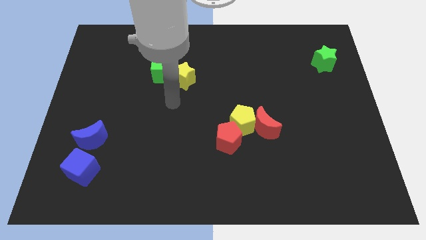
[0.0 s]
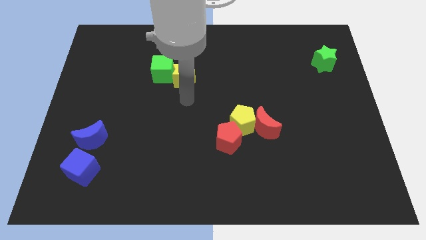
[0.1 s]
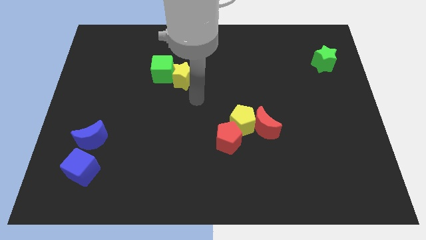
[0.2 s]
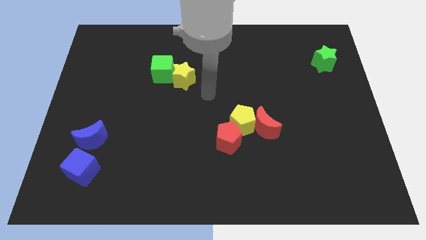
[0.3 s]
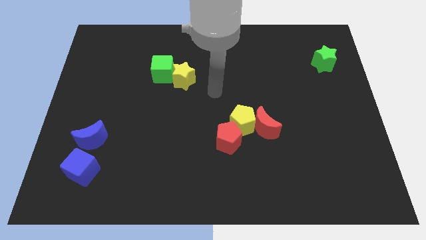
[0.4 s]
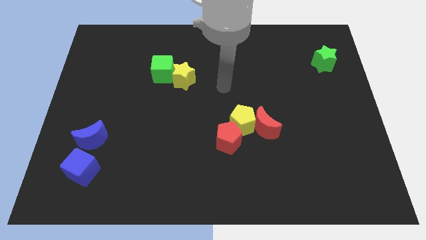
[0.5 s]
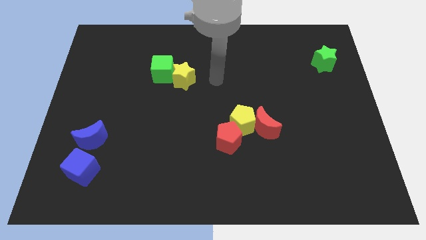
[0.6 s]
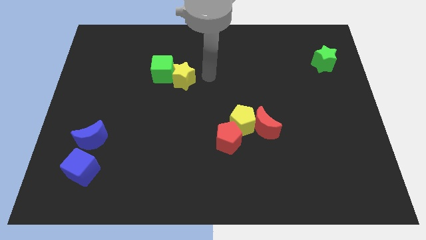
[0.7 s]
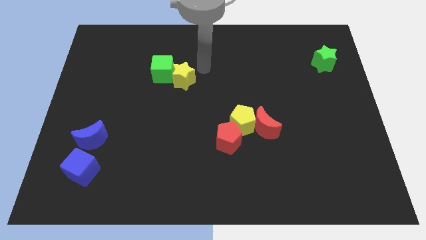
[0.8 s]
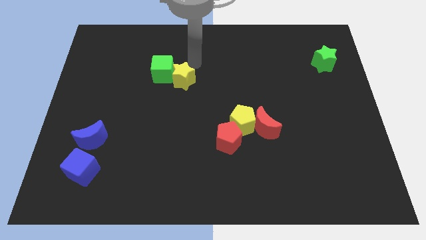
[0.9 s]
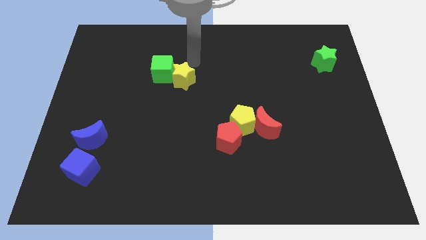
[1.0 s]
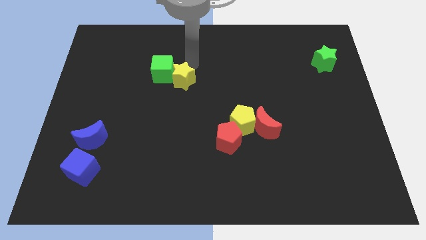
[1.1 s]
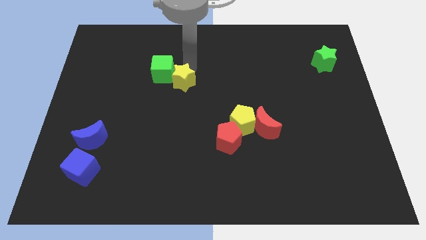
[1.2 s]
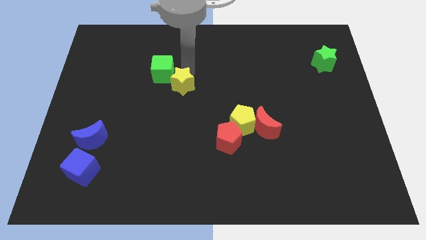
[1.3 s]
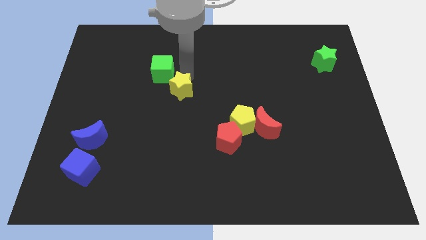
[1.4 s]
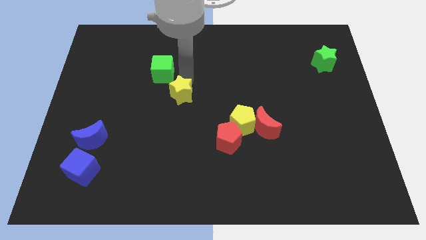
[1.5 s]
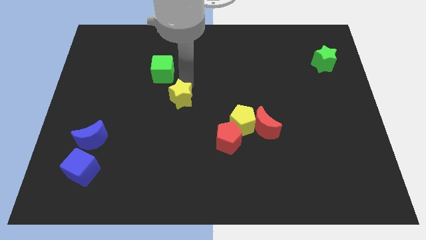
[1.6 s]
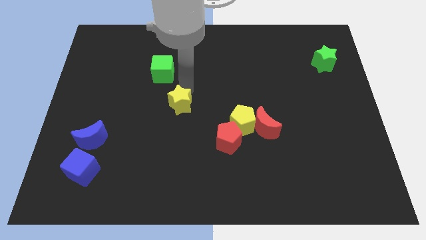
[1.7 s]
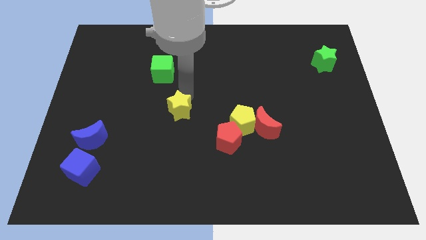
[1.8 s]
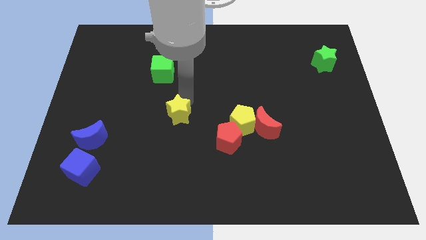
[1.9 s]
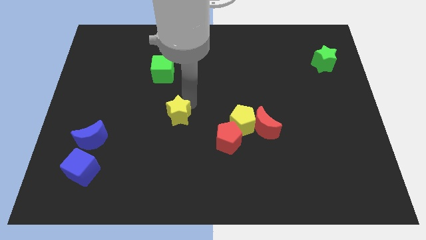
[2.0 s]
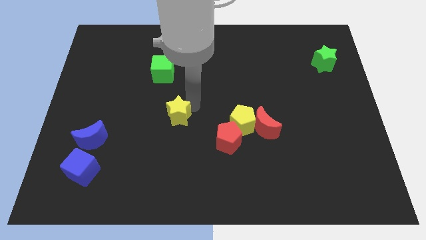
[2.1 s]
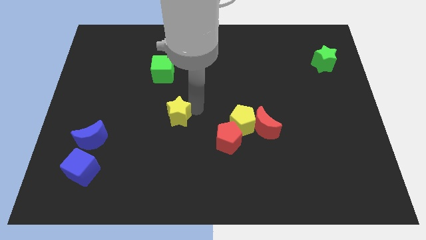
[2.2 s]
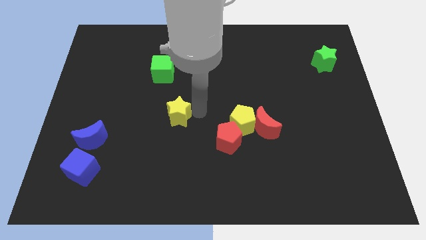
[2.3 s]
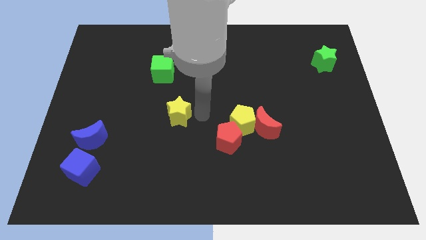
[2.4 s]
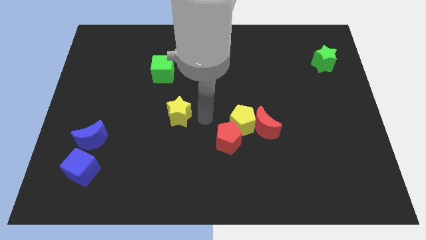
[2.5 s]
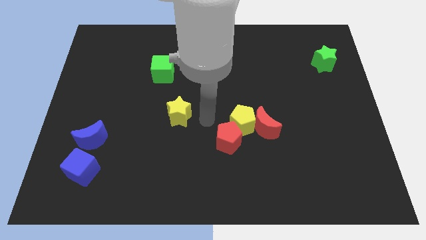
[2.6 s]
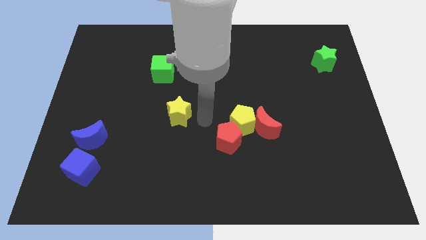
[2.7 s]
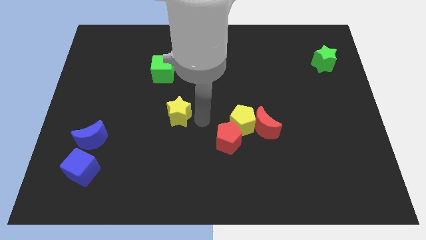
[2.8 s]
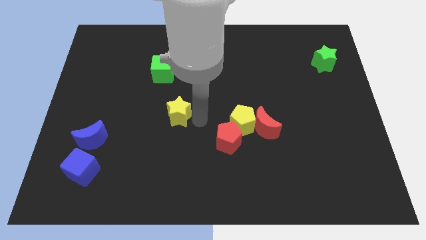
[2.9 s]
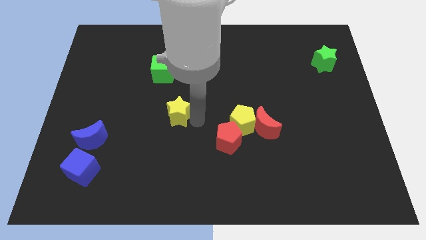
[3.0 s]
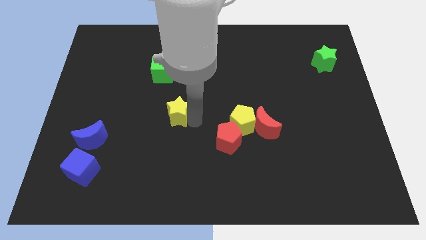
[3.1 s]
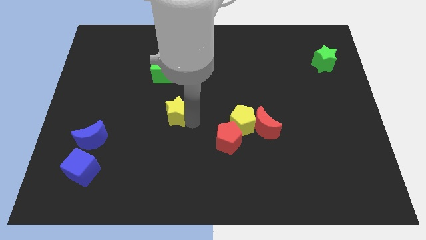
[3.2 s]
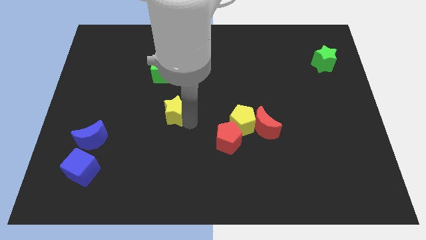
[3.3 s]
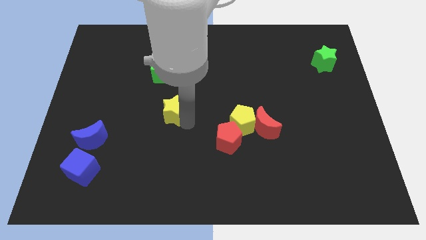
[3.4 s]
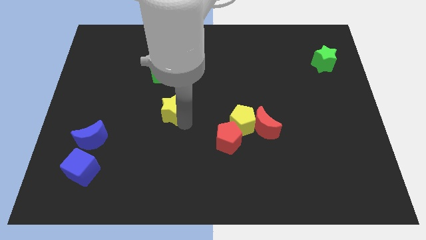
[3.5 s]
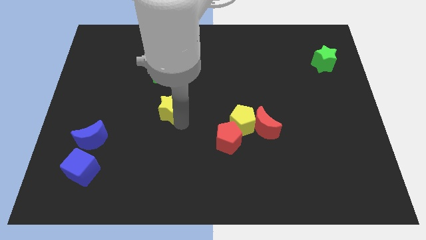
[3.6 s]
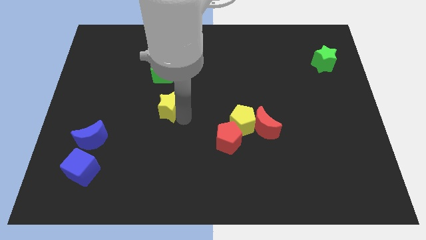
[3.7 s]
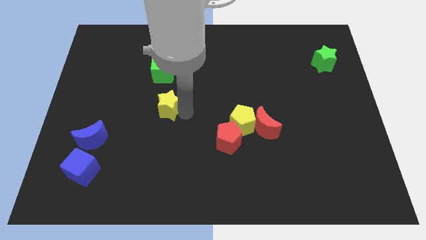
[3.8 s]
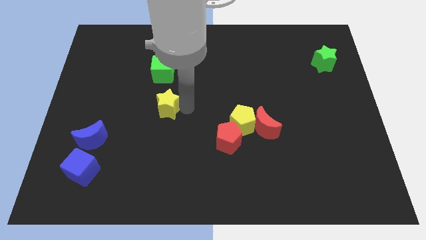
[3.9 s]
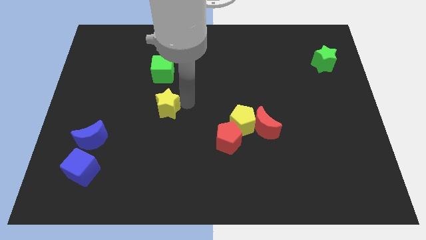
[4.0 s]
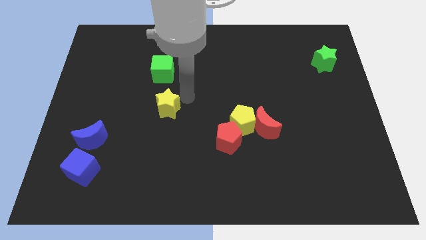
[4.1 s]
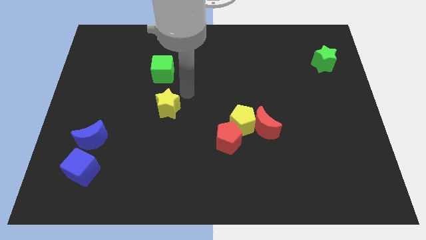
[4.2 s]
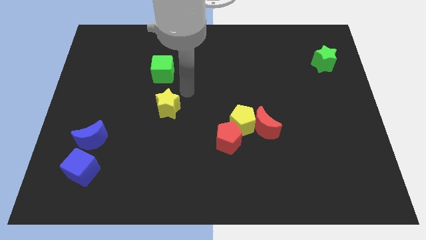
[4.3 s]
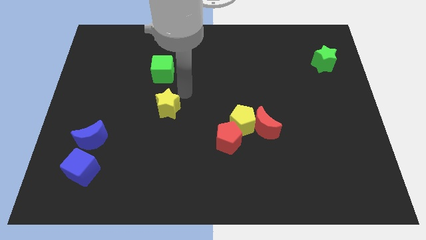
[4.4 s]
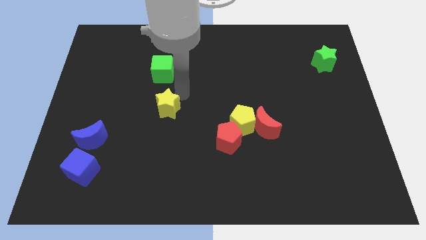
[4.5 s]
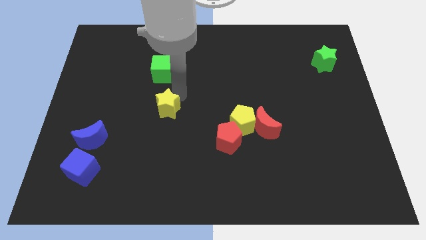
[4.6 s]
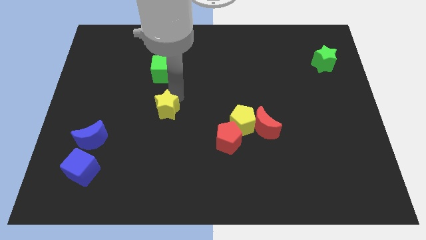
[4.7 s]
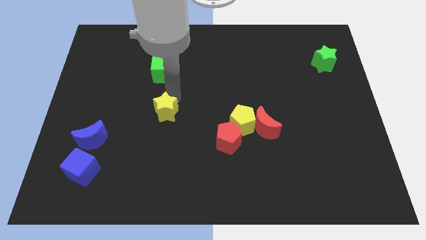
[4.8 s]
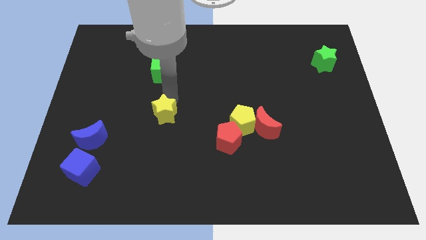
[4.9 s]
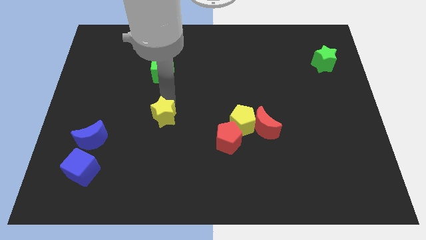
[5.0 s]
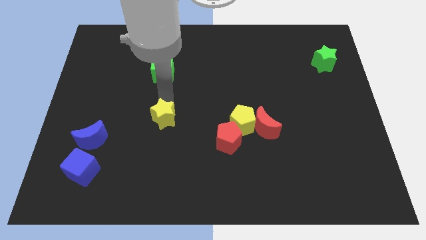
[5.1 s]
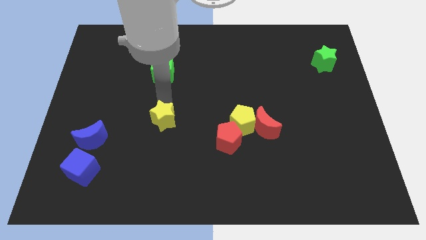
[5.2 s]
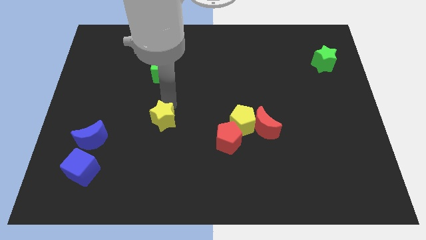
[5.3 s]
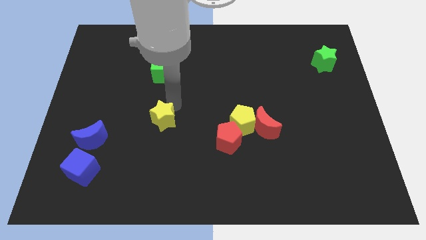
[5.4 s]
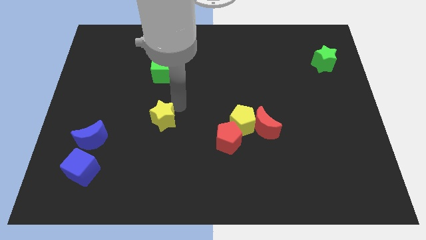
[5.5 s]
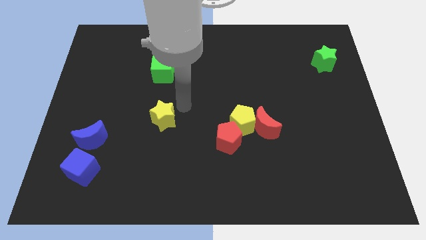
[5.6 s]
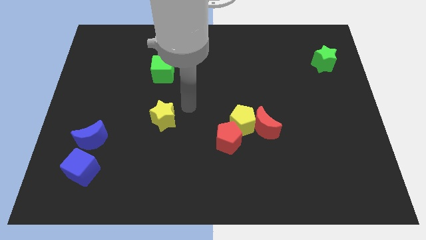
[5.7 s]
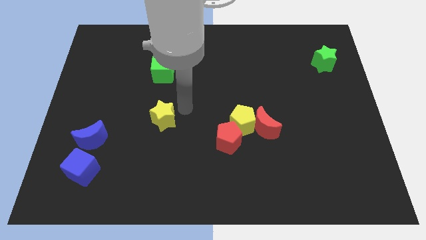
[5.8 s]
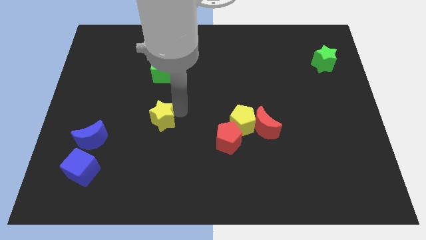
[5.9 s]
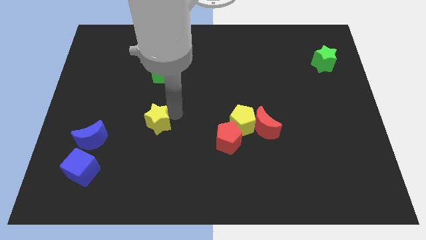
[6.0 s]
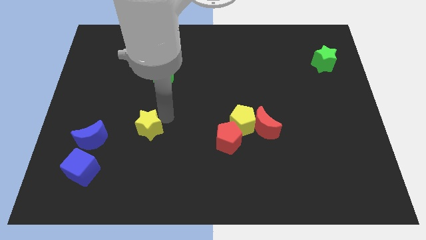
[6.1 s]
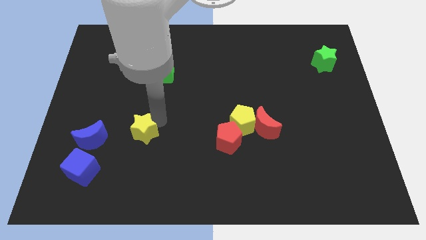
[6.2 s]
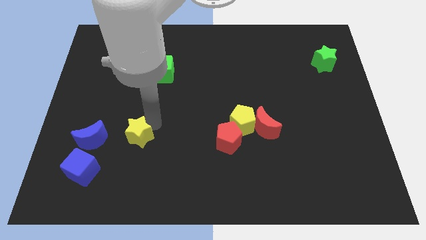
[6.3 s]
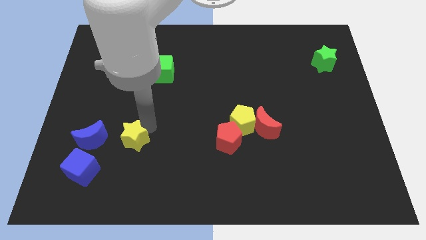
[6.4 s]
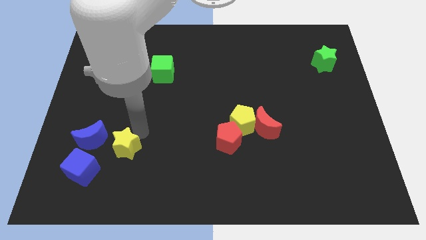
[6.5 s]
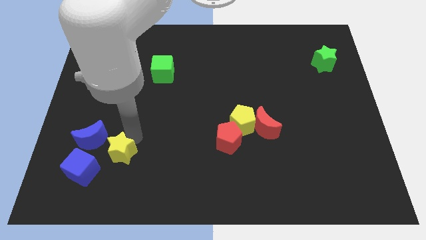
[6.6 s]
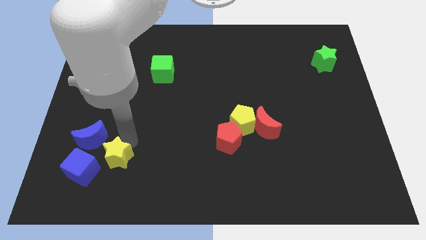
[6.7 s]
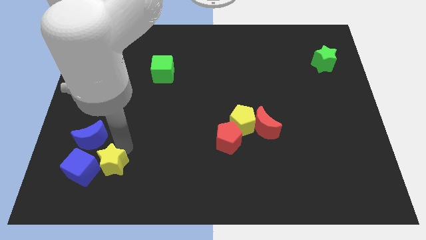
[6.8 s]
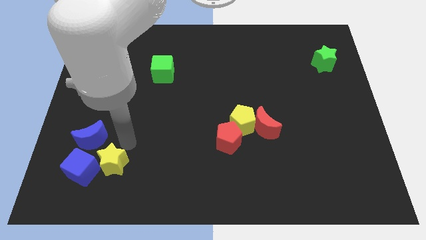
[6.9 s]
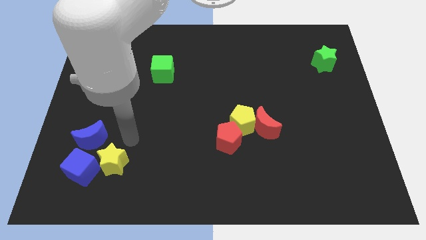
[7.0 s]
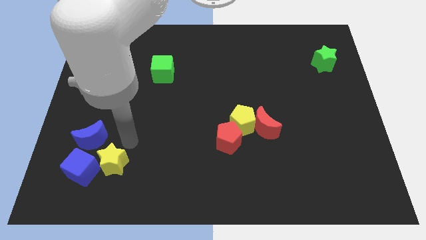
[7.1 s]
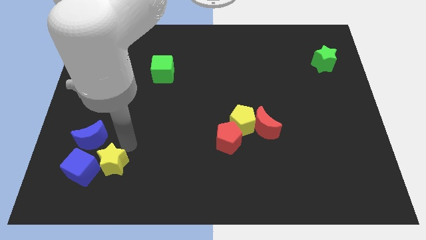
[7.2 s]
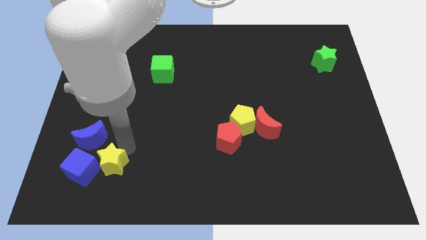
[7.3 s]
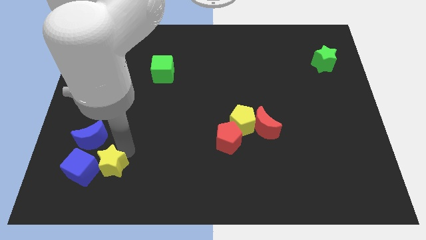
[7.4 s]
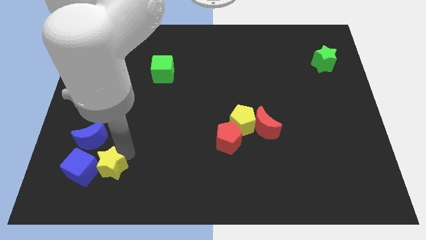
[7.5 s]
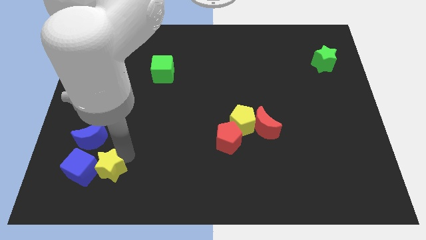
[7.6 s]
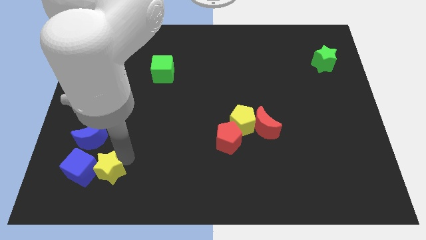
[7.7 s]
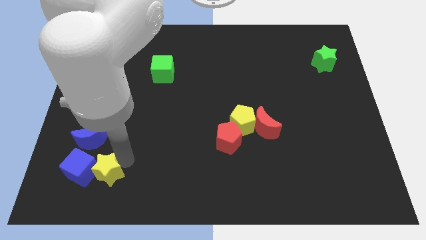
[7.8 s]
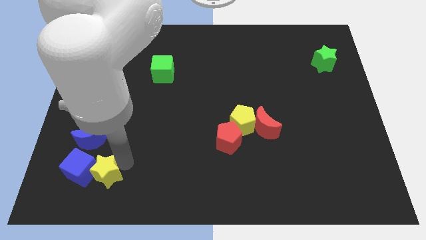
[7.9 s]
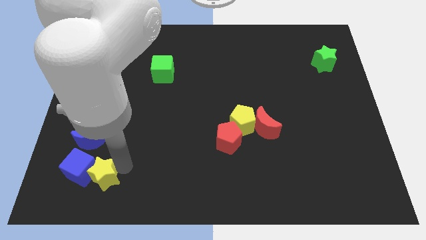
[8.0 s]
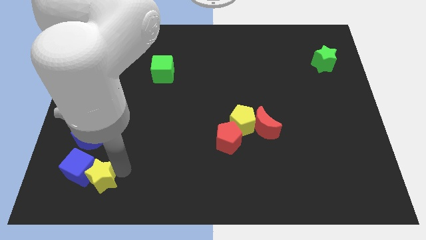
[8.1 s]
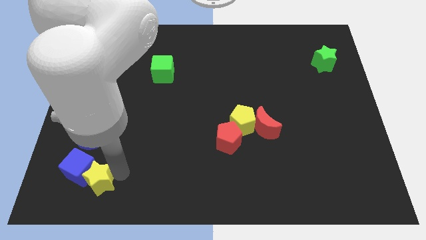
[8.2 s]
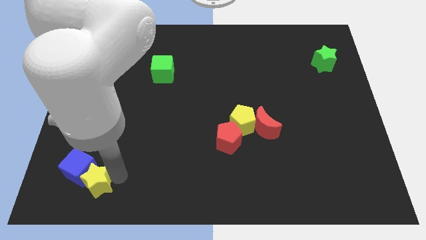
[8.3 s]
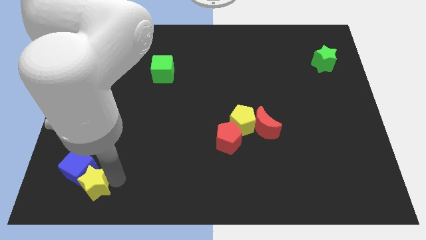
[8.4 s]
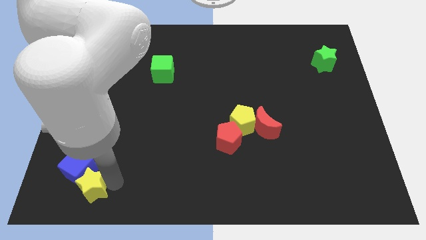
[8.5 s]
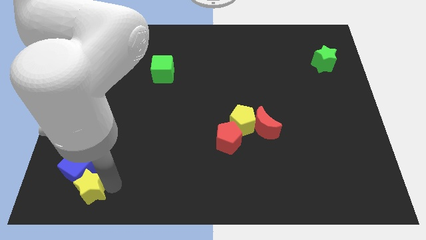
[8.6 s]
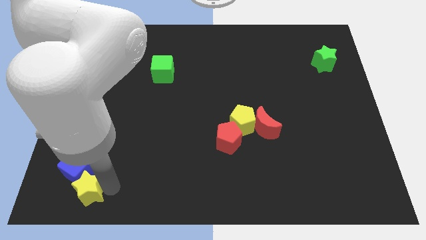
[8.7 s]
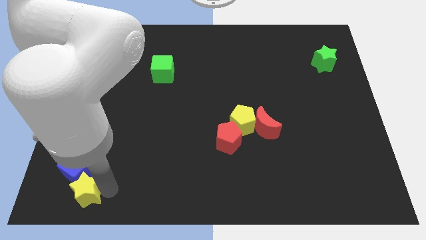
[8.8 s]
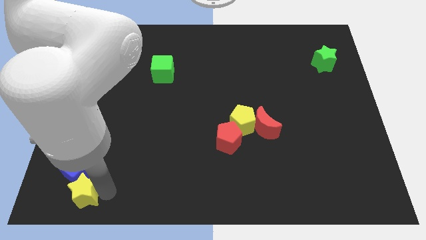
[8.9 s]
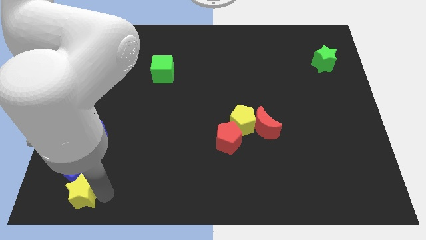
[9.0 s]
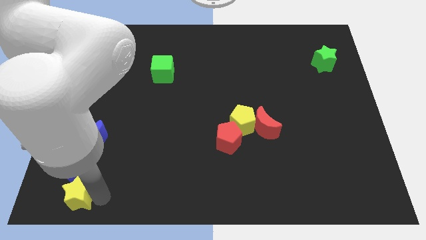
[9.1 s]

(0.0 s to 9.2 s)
put the yellow star to the bottom left of the board
